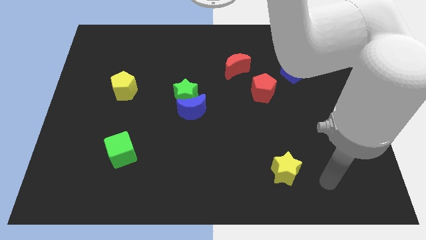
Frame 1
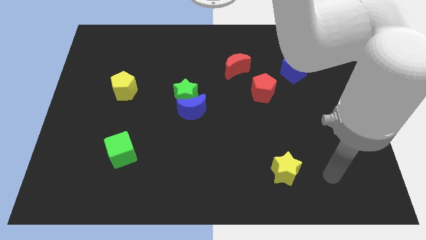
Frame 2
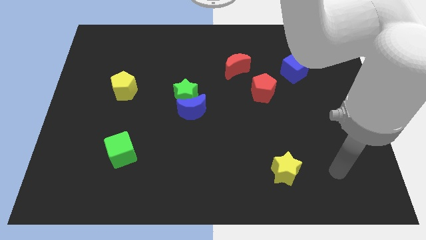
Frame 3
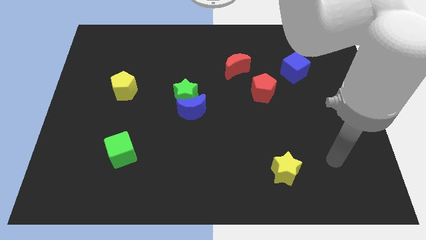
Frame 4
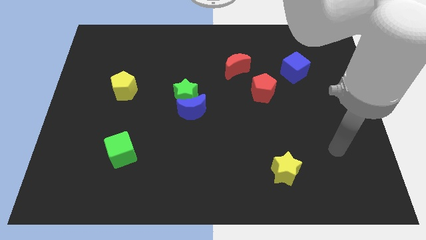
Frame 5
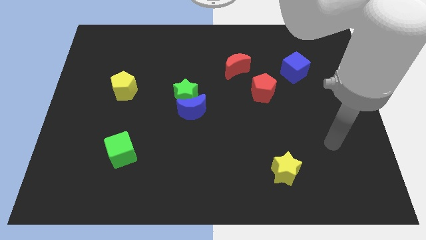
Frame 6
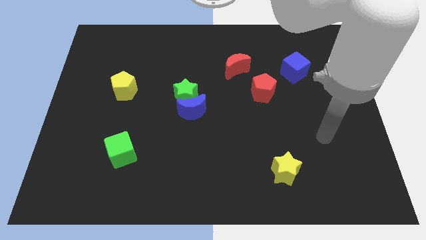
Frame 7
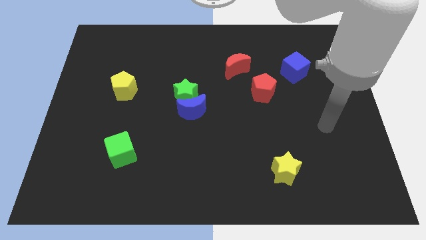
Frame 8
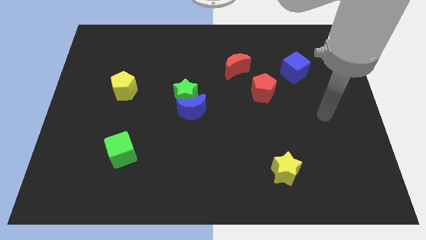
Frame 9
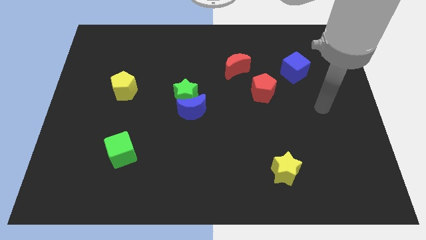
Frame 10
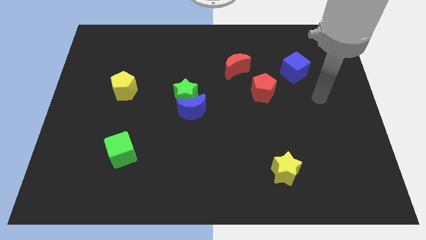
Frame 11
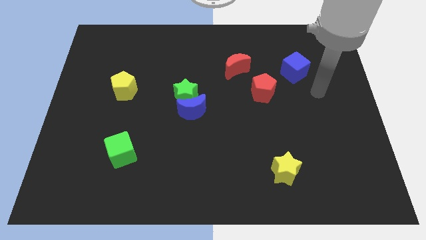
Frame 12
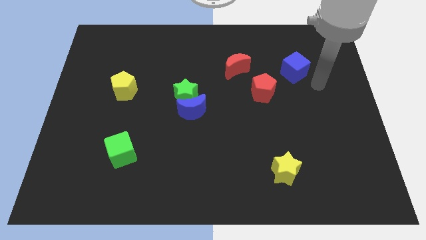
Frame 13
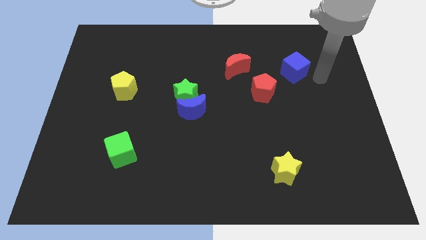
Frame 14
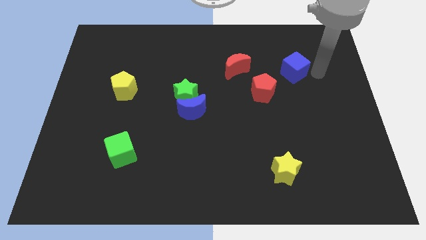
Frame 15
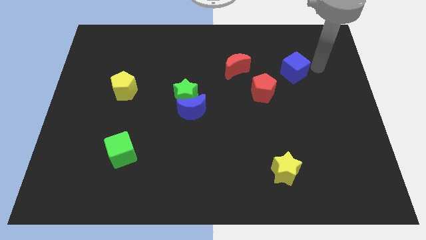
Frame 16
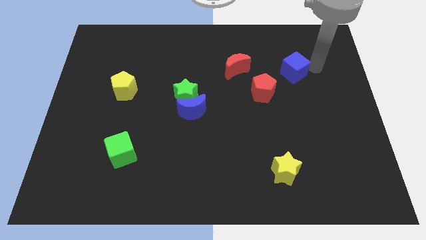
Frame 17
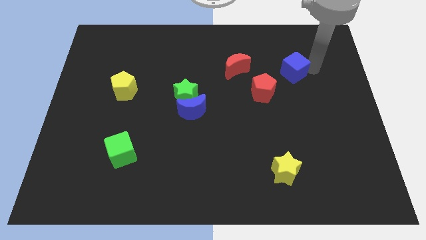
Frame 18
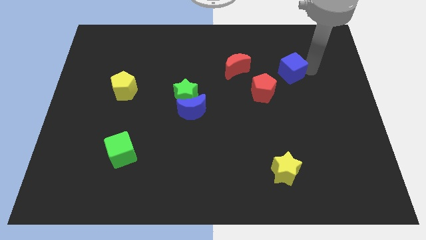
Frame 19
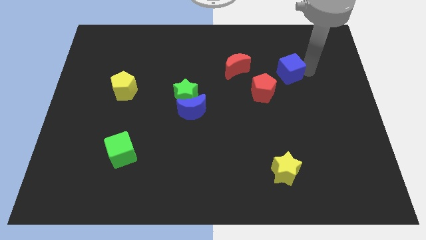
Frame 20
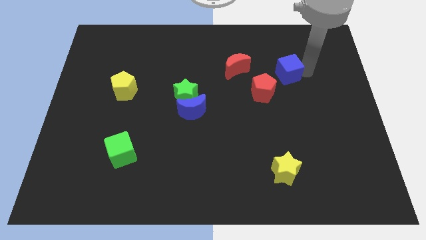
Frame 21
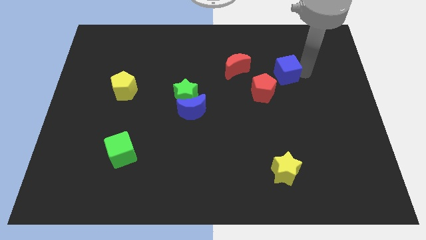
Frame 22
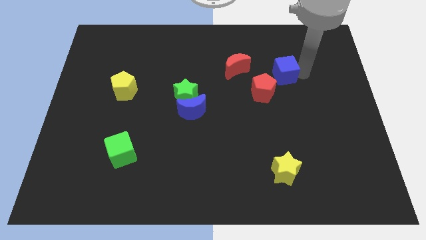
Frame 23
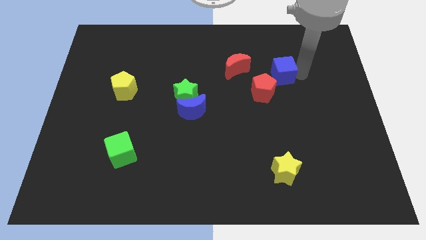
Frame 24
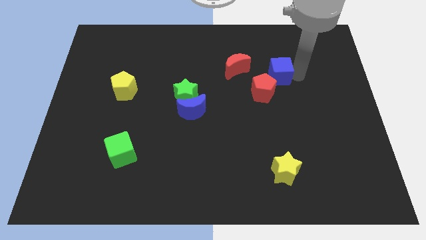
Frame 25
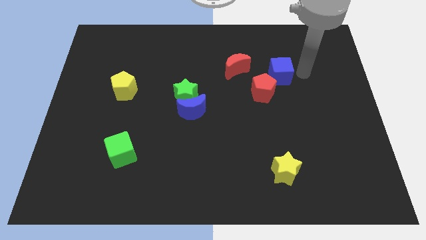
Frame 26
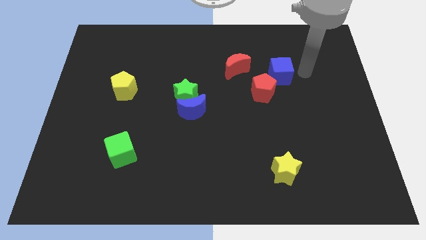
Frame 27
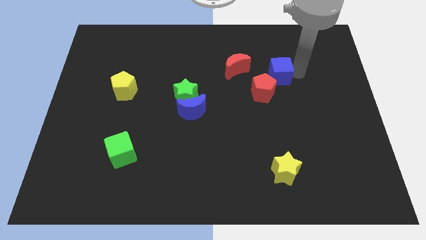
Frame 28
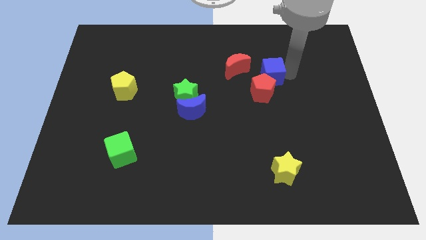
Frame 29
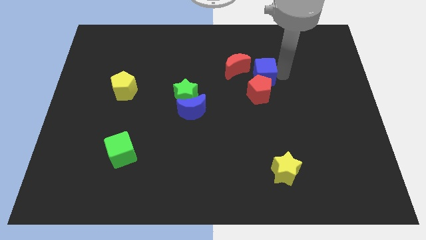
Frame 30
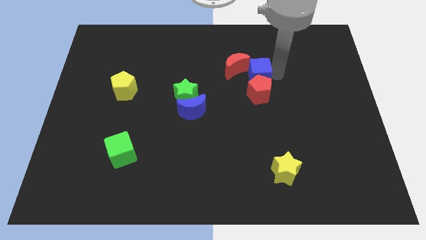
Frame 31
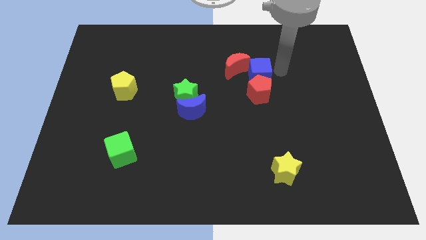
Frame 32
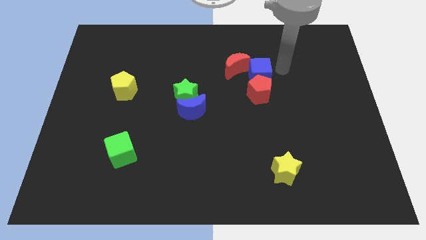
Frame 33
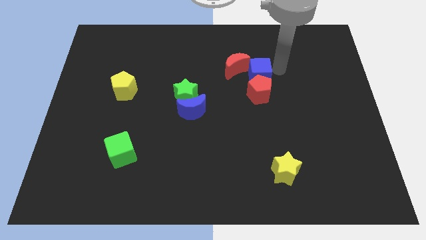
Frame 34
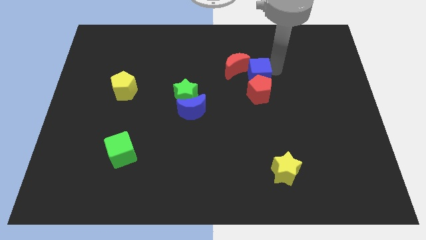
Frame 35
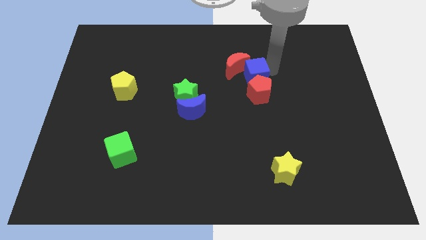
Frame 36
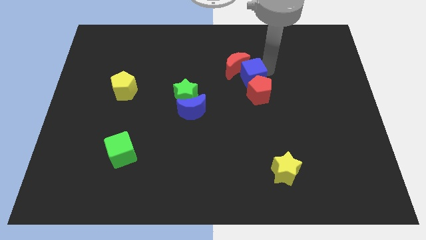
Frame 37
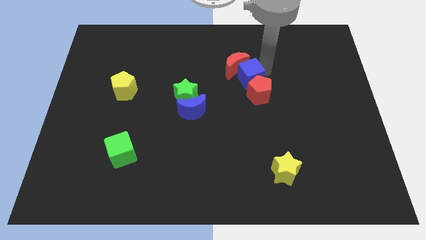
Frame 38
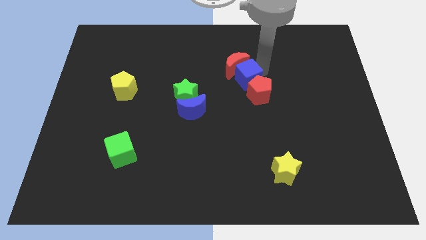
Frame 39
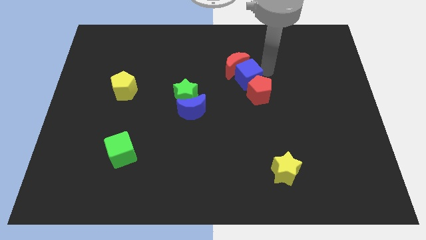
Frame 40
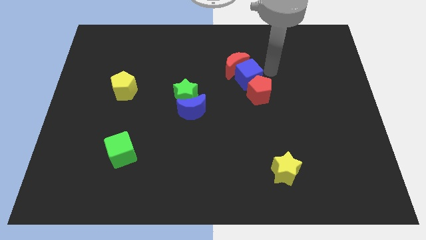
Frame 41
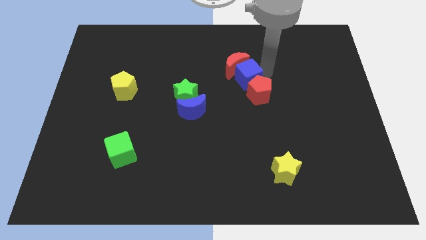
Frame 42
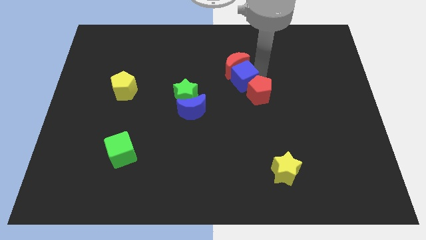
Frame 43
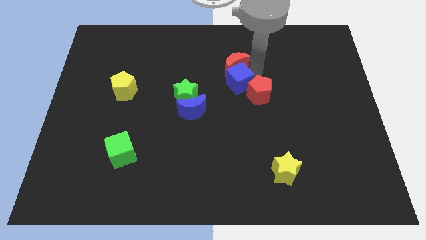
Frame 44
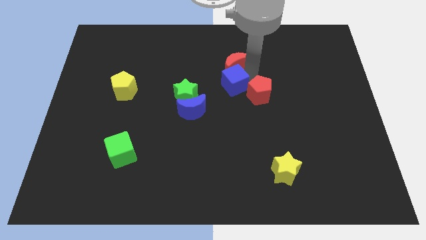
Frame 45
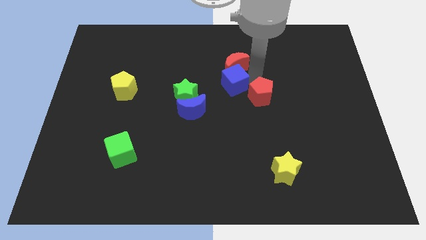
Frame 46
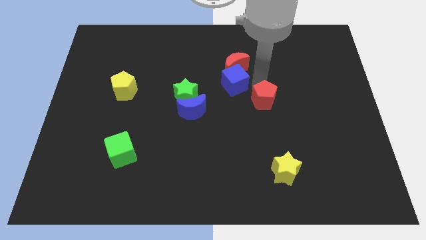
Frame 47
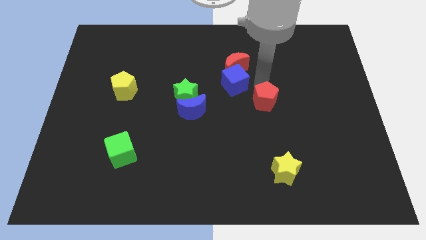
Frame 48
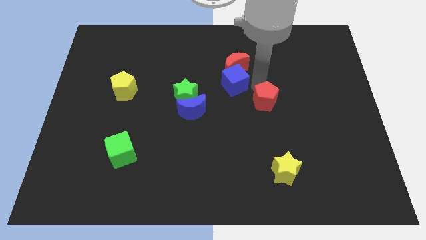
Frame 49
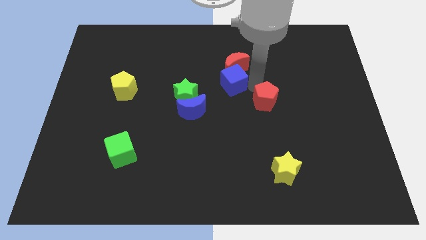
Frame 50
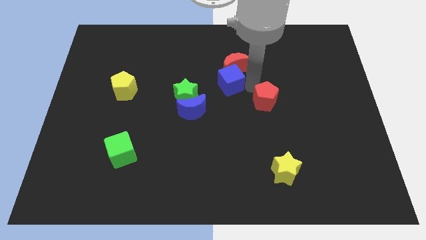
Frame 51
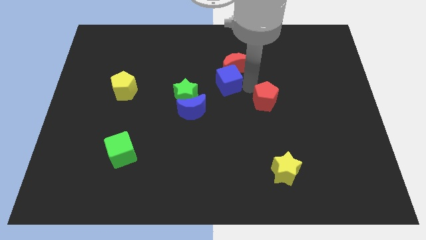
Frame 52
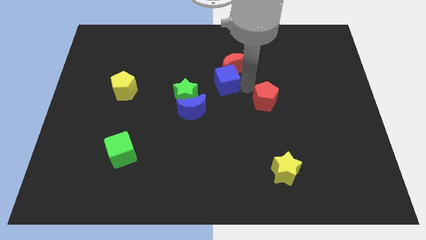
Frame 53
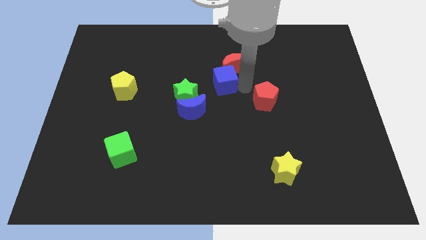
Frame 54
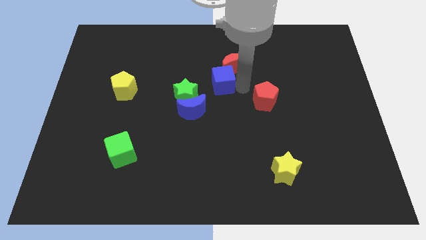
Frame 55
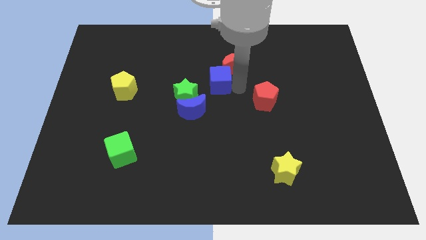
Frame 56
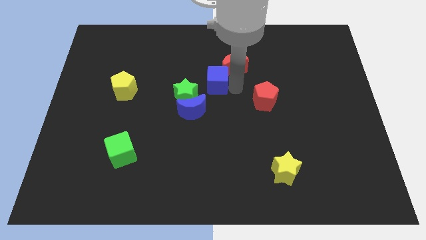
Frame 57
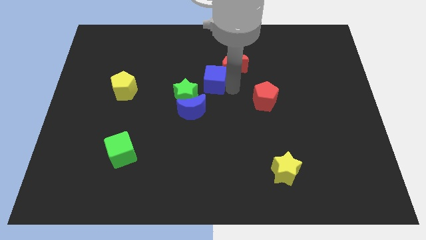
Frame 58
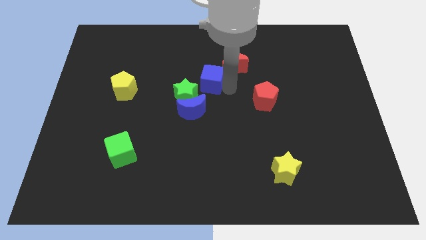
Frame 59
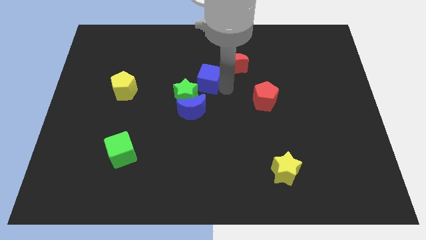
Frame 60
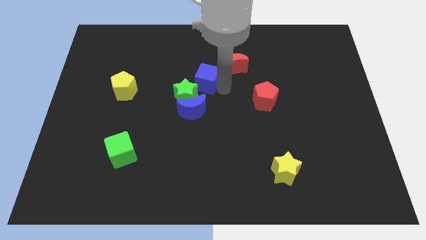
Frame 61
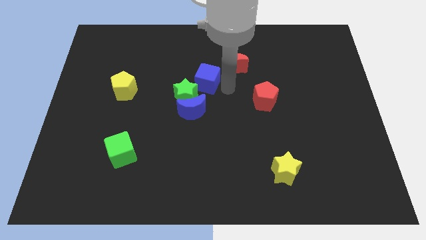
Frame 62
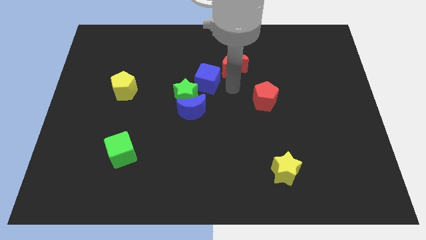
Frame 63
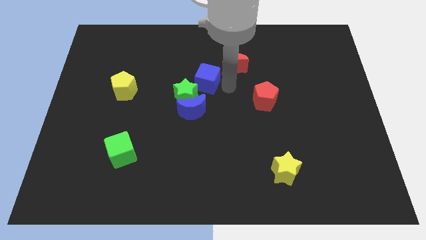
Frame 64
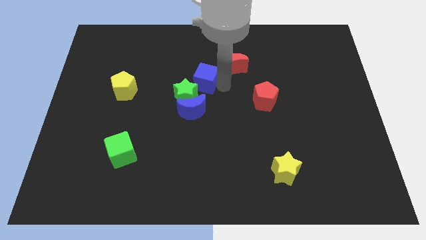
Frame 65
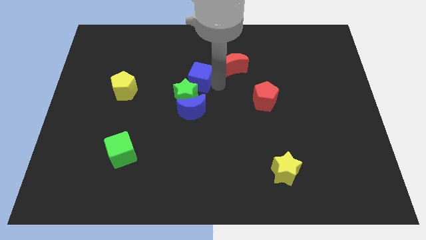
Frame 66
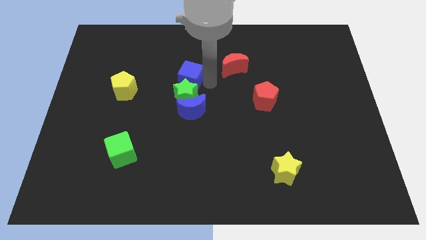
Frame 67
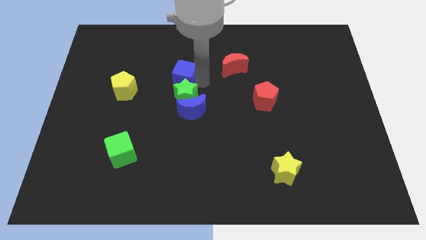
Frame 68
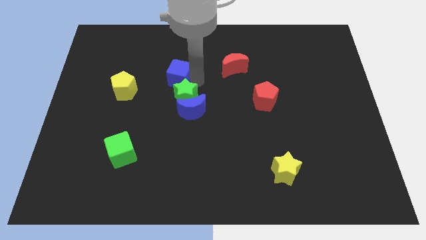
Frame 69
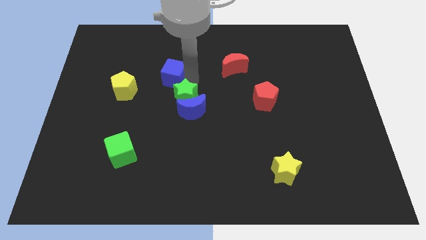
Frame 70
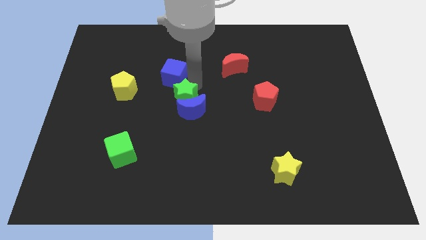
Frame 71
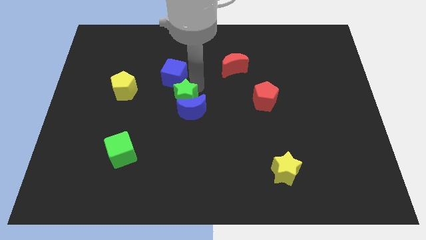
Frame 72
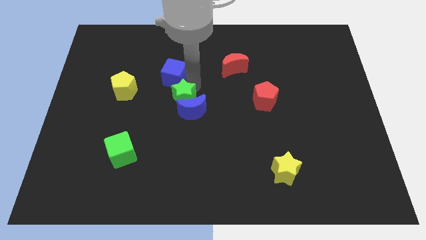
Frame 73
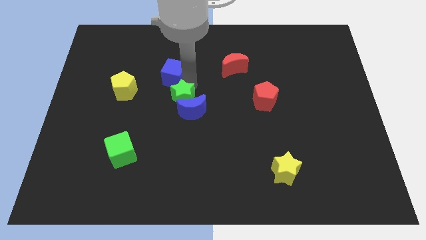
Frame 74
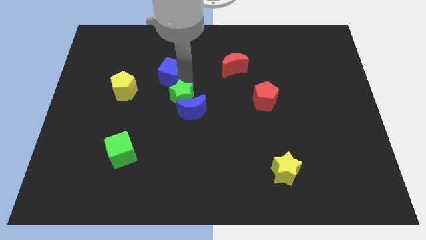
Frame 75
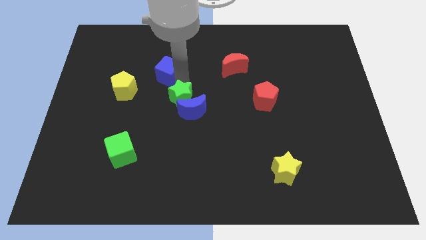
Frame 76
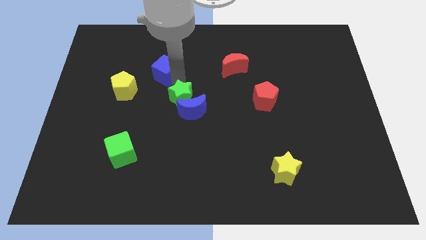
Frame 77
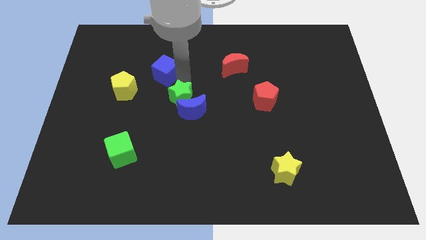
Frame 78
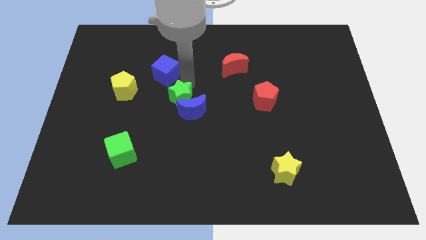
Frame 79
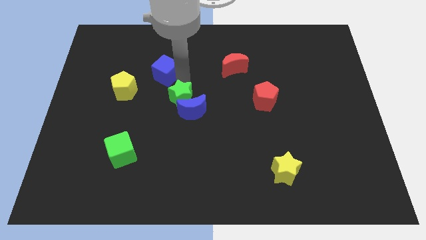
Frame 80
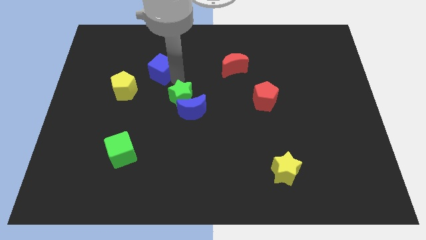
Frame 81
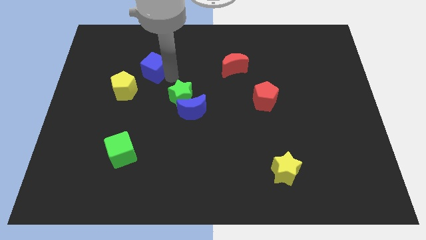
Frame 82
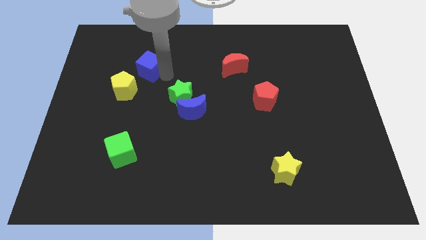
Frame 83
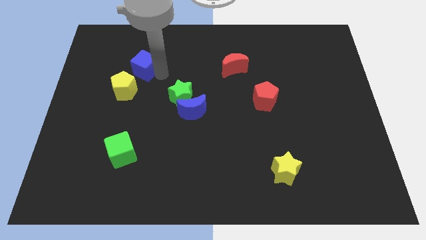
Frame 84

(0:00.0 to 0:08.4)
put the blue cube to the top side of the yellow pentagon
